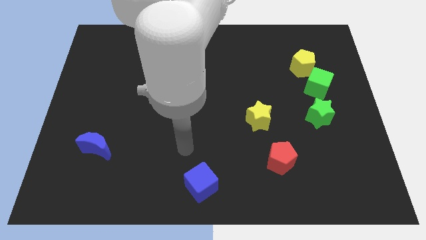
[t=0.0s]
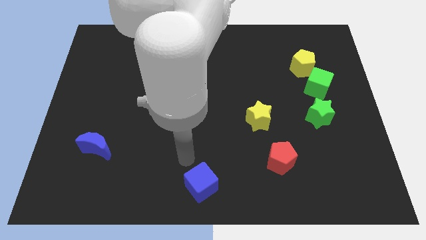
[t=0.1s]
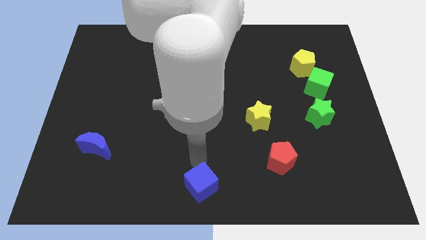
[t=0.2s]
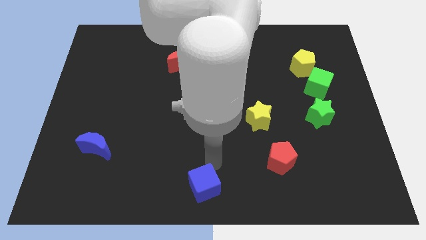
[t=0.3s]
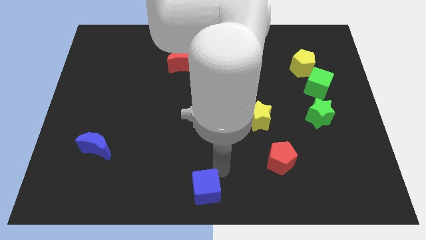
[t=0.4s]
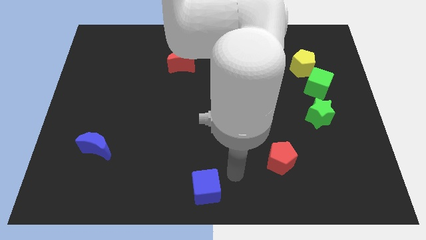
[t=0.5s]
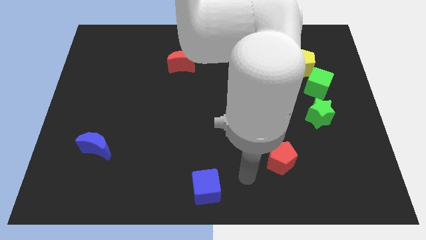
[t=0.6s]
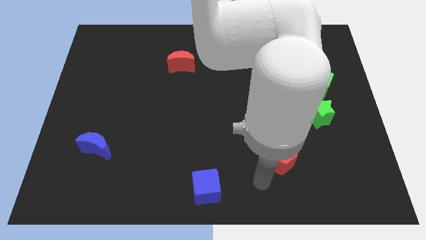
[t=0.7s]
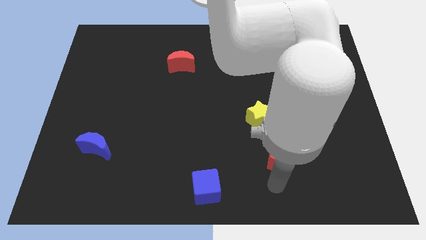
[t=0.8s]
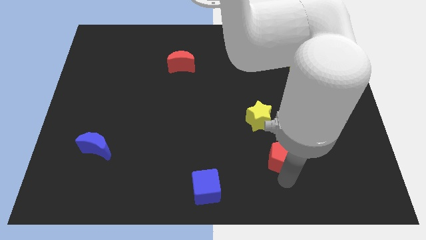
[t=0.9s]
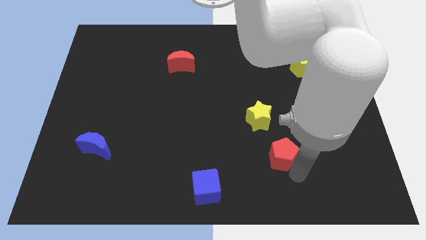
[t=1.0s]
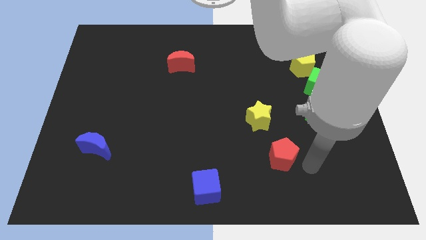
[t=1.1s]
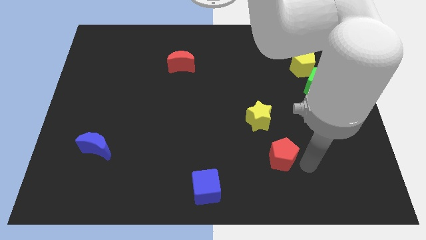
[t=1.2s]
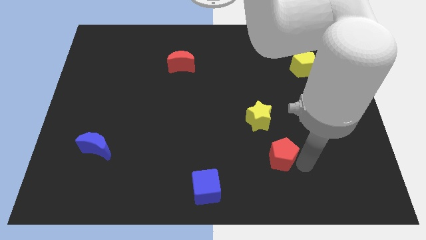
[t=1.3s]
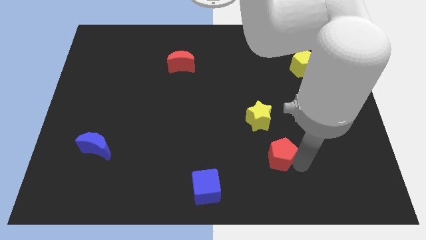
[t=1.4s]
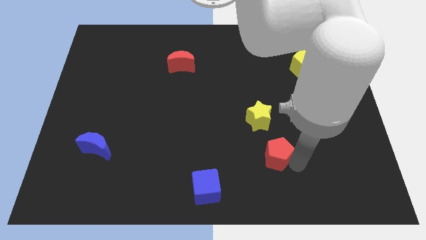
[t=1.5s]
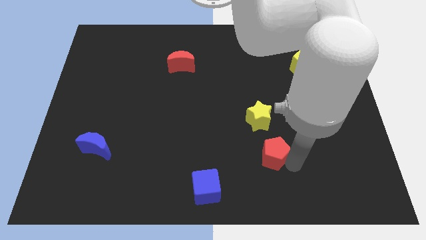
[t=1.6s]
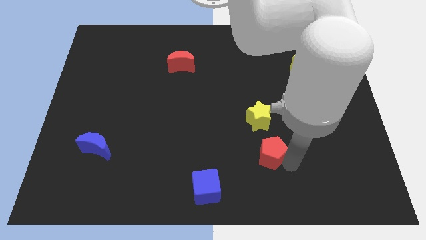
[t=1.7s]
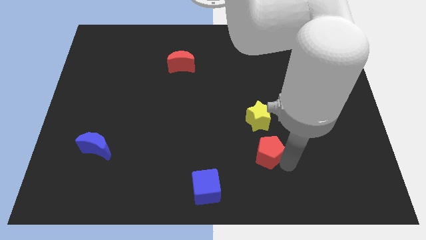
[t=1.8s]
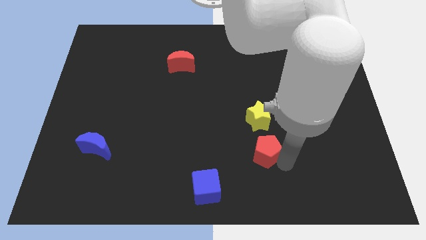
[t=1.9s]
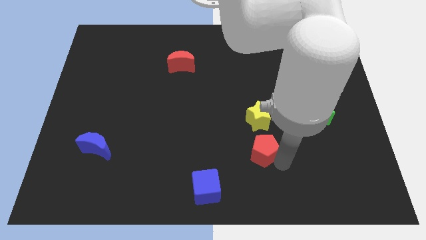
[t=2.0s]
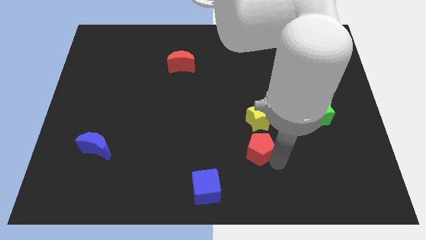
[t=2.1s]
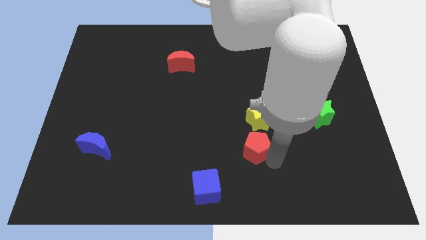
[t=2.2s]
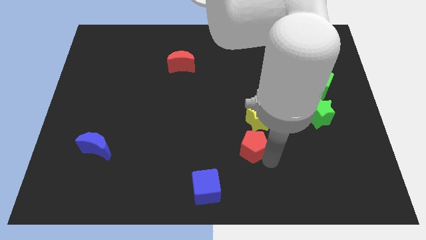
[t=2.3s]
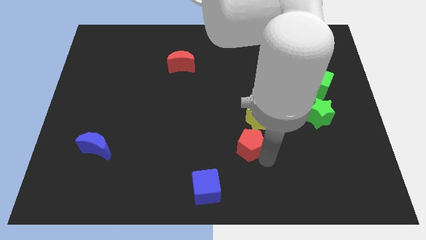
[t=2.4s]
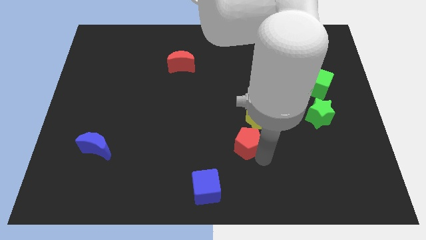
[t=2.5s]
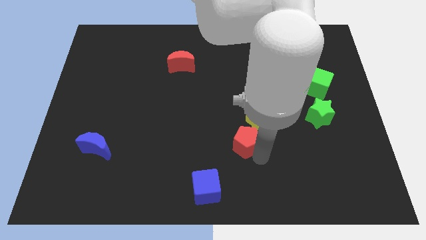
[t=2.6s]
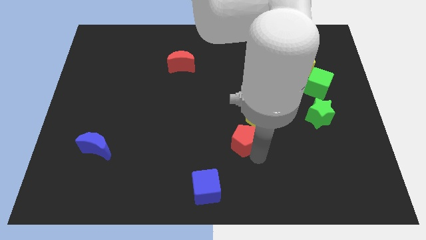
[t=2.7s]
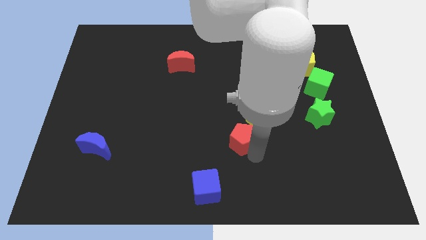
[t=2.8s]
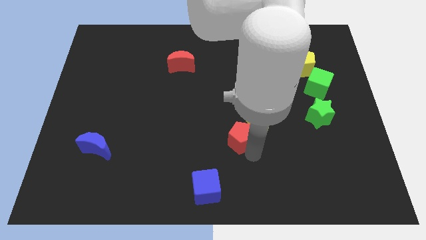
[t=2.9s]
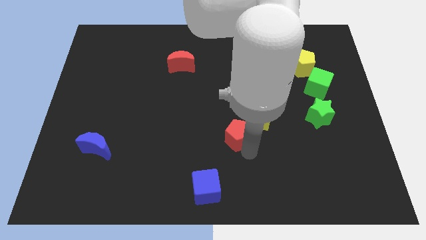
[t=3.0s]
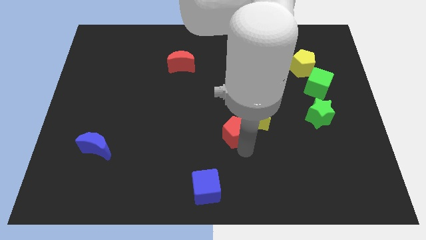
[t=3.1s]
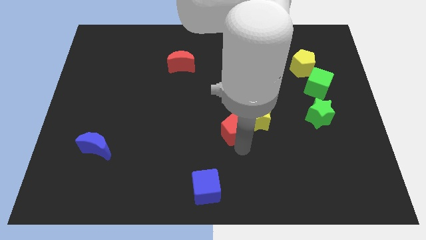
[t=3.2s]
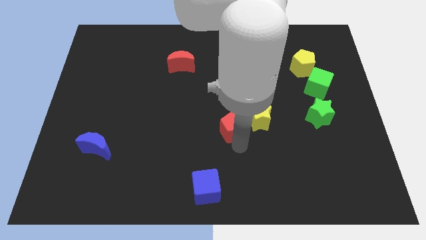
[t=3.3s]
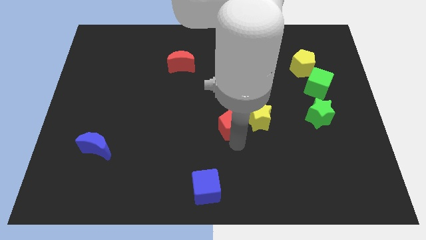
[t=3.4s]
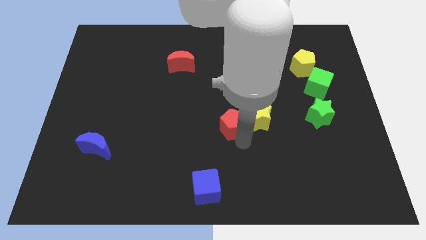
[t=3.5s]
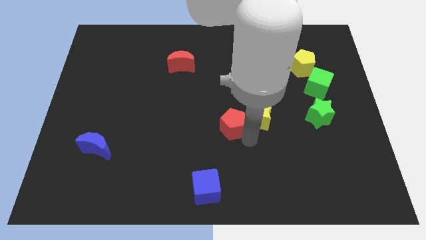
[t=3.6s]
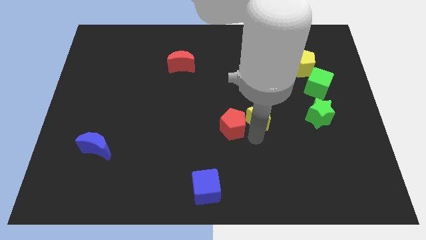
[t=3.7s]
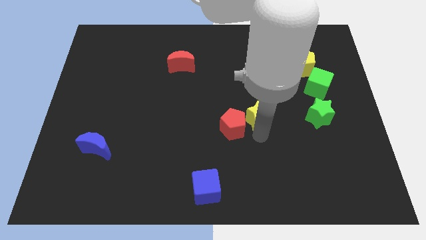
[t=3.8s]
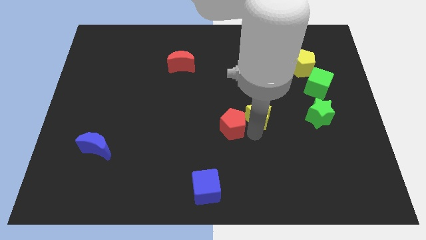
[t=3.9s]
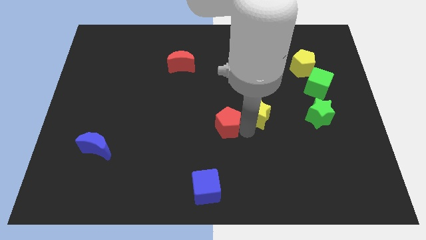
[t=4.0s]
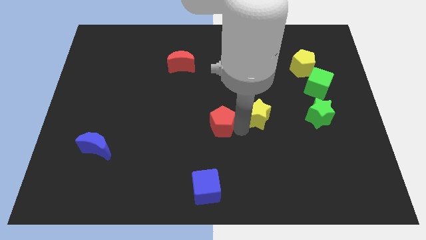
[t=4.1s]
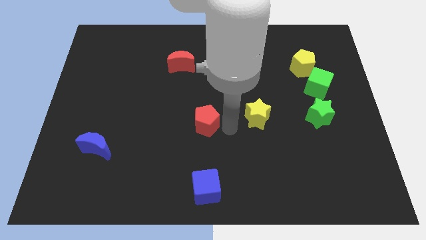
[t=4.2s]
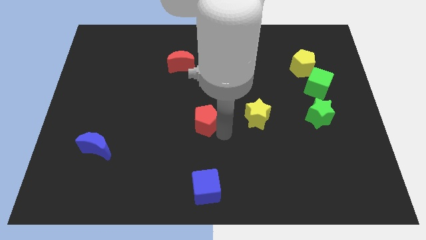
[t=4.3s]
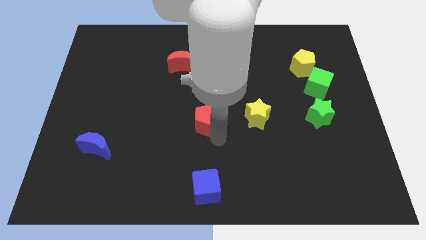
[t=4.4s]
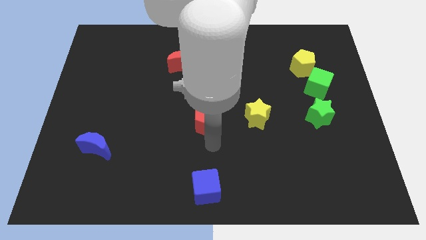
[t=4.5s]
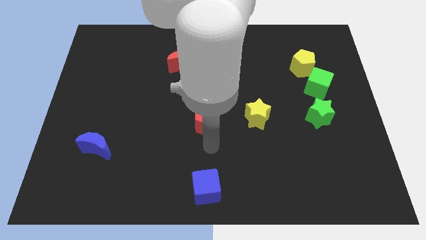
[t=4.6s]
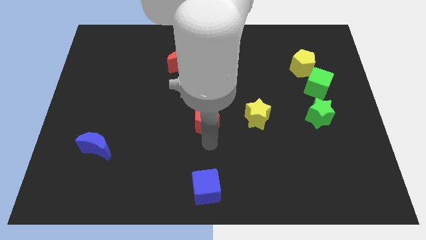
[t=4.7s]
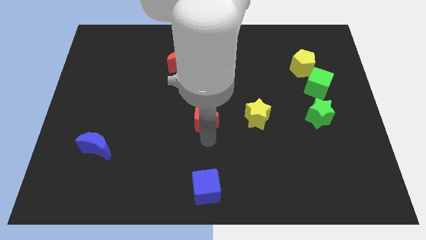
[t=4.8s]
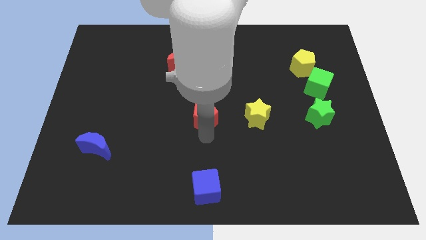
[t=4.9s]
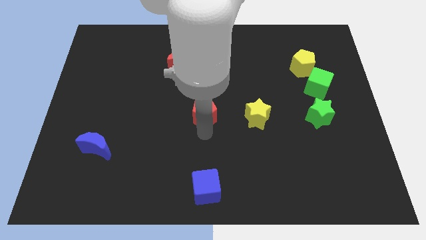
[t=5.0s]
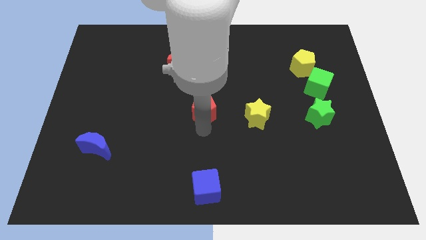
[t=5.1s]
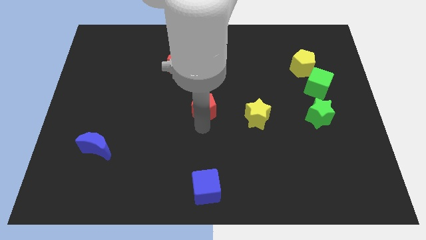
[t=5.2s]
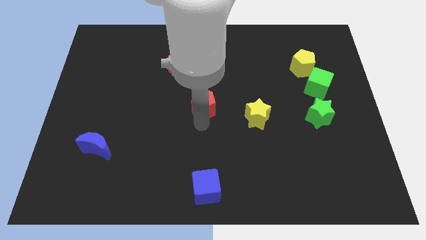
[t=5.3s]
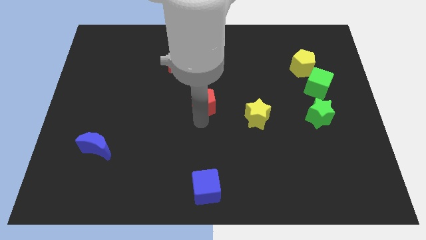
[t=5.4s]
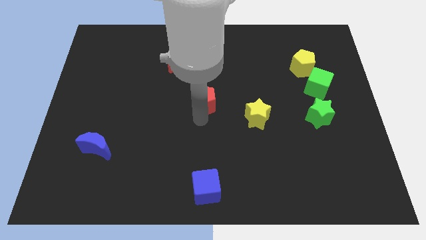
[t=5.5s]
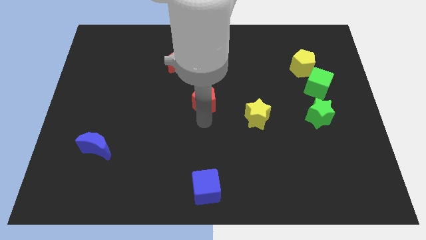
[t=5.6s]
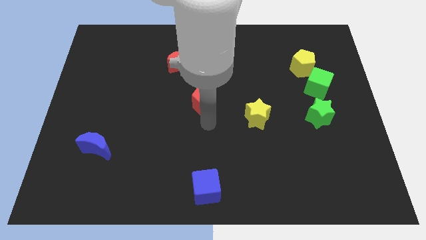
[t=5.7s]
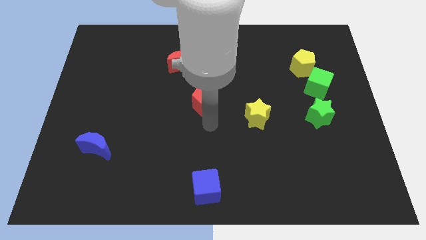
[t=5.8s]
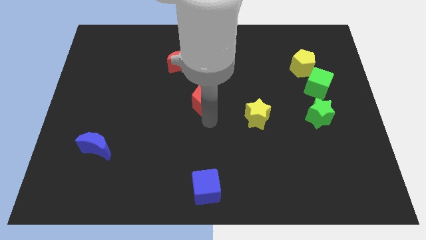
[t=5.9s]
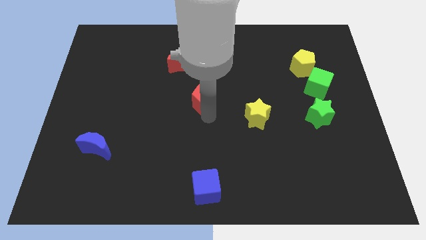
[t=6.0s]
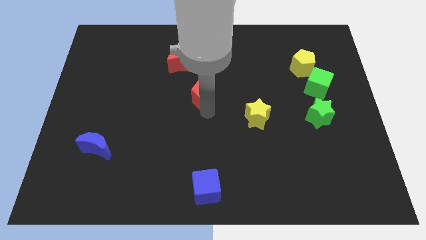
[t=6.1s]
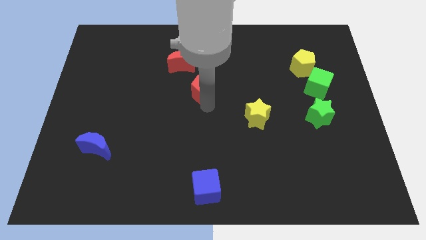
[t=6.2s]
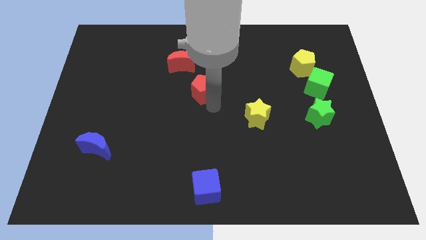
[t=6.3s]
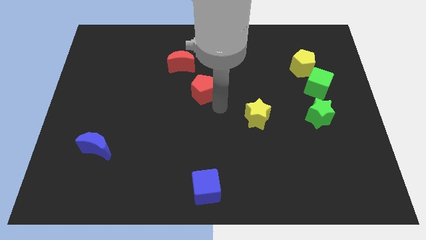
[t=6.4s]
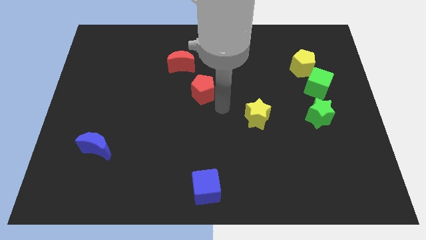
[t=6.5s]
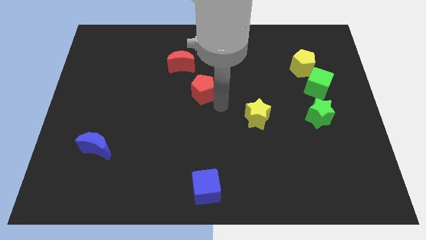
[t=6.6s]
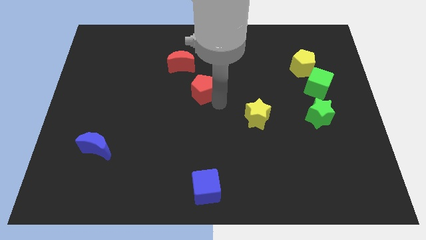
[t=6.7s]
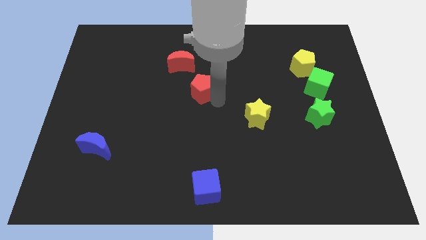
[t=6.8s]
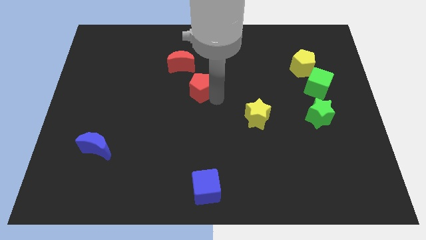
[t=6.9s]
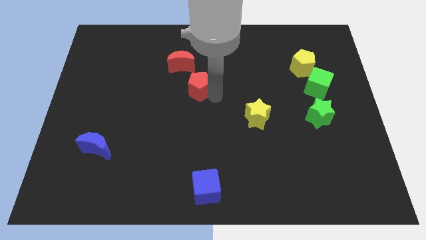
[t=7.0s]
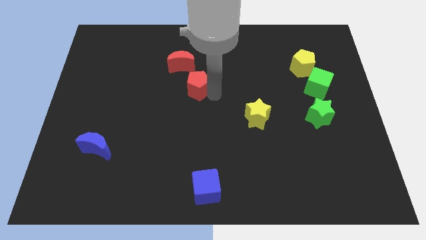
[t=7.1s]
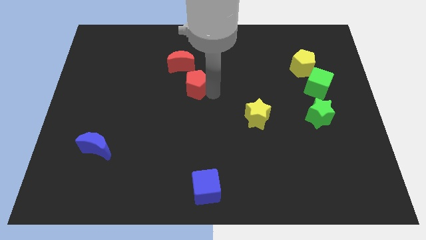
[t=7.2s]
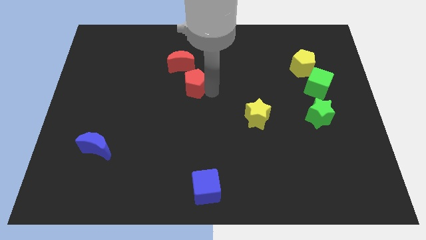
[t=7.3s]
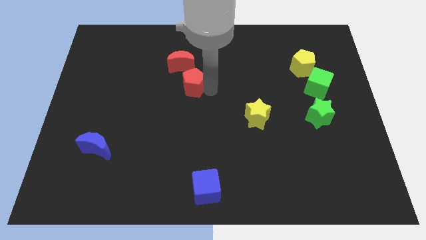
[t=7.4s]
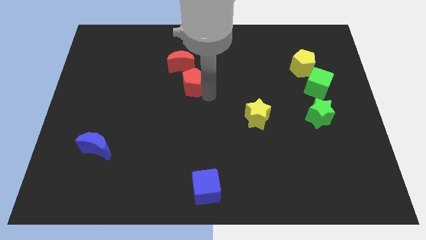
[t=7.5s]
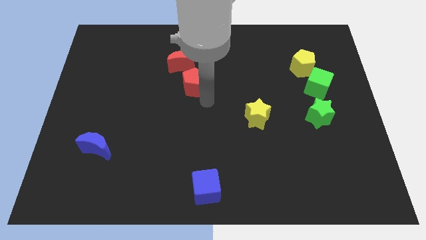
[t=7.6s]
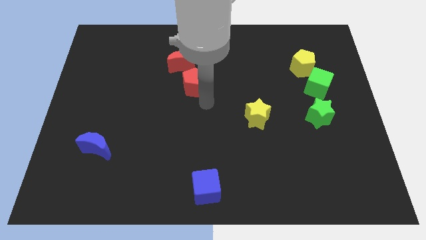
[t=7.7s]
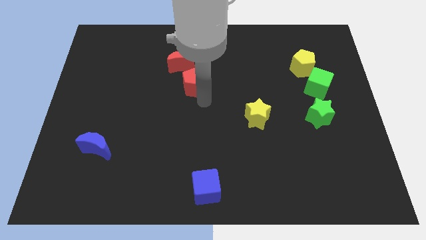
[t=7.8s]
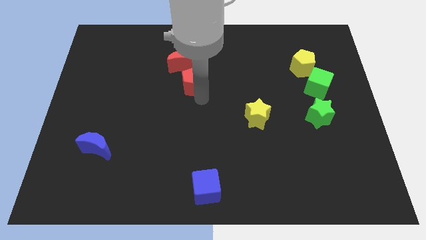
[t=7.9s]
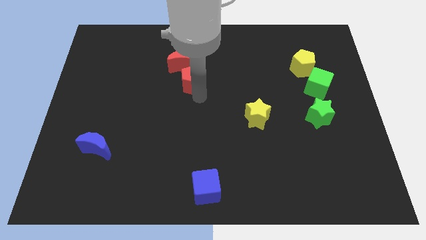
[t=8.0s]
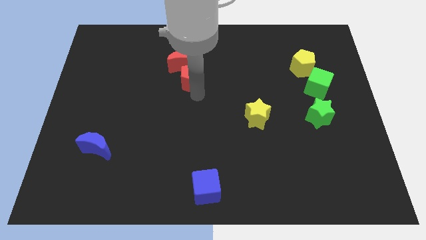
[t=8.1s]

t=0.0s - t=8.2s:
move the red pentagon next to the red moon
